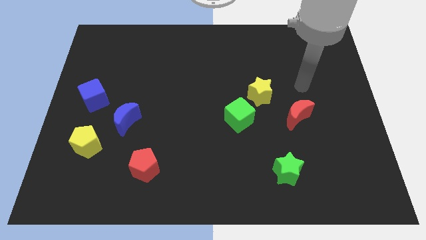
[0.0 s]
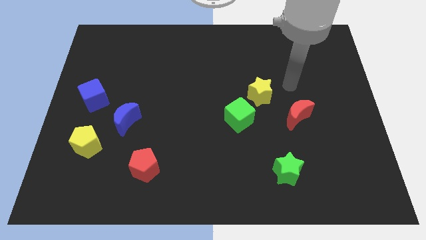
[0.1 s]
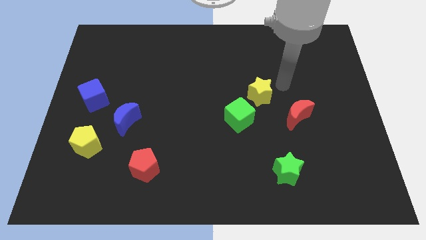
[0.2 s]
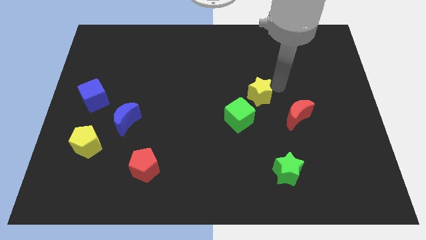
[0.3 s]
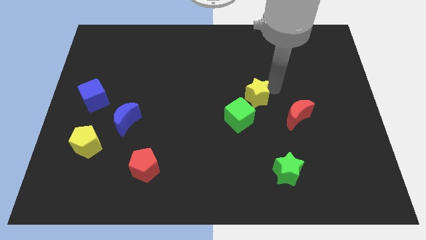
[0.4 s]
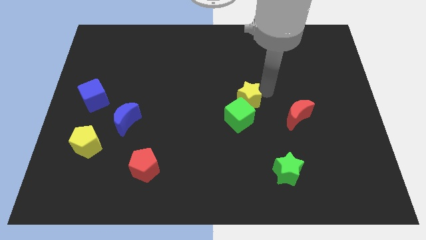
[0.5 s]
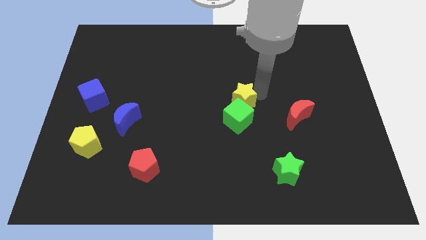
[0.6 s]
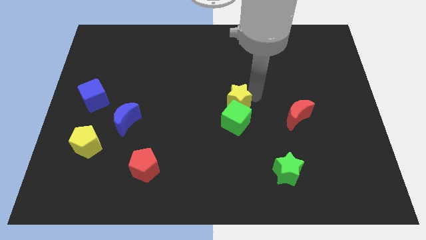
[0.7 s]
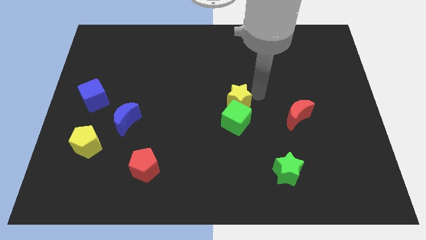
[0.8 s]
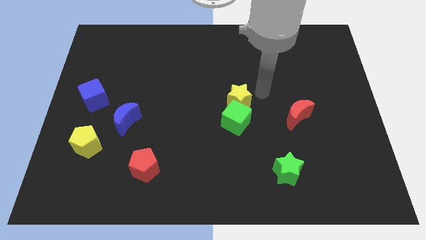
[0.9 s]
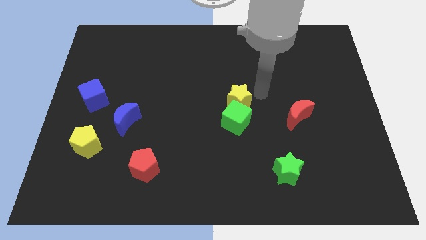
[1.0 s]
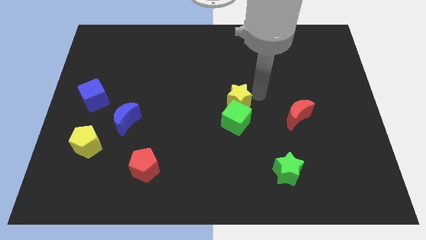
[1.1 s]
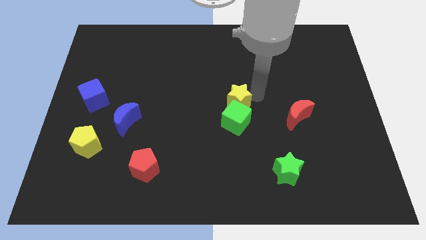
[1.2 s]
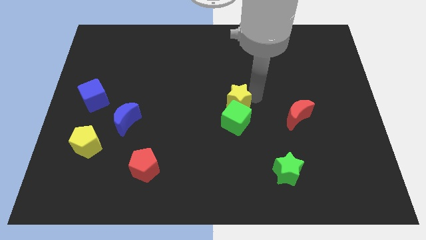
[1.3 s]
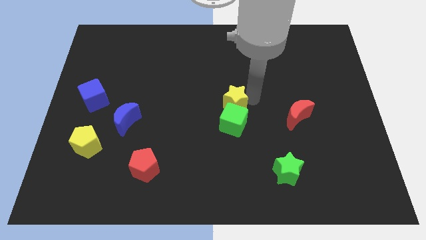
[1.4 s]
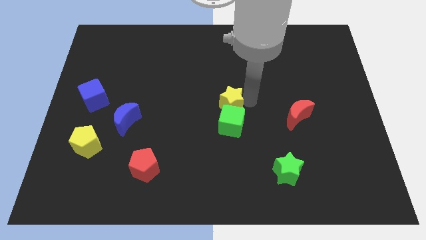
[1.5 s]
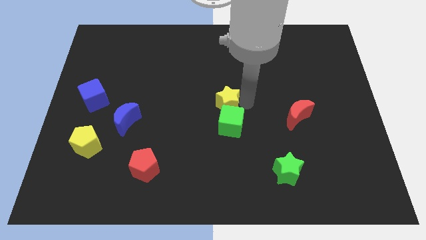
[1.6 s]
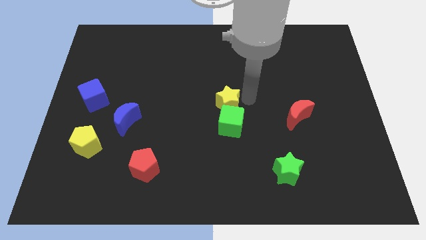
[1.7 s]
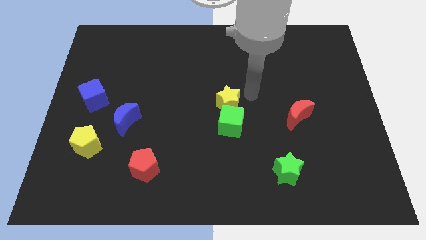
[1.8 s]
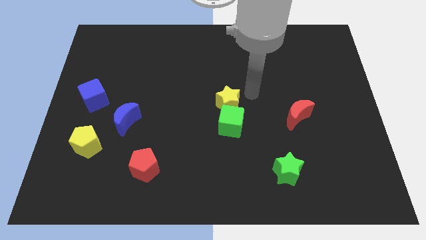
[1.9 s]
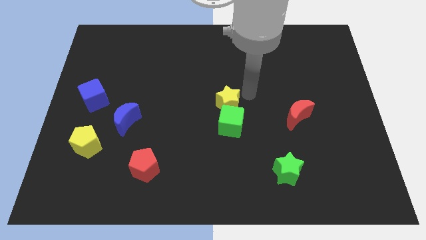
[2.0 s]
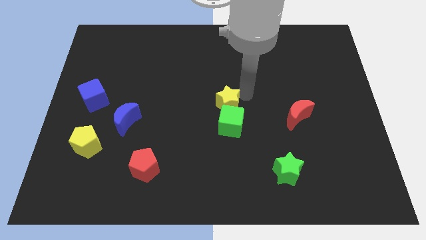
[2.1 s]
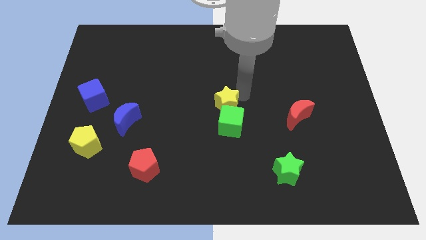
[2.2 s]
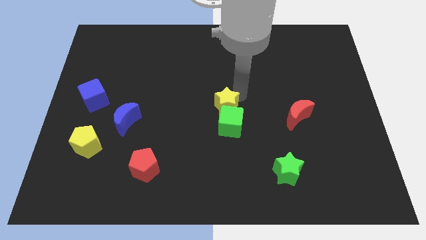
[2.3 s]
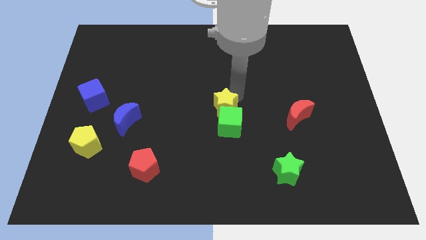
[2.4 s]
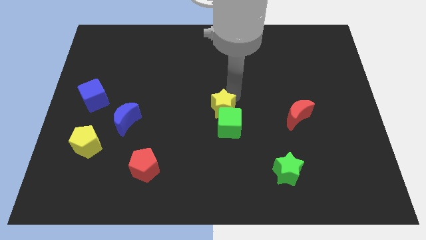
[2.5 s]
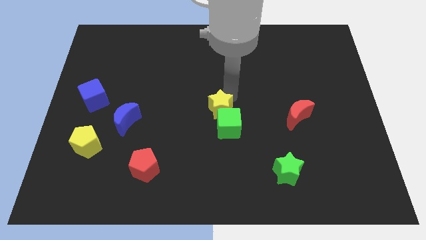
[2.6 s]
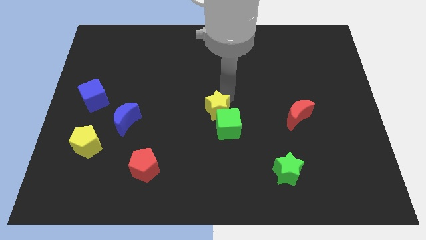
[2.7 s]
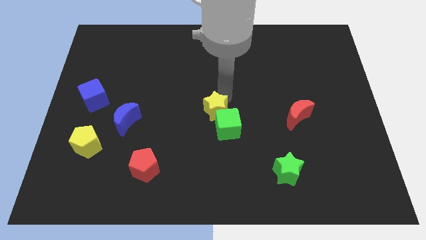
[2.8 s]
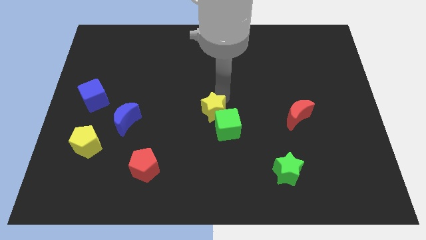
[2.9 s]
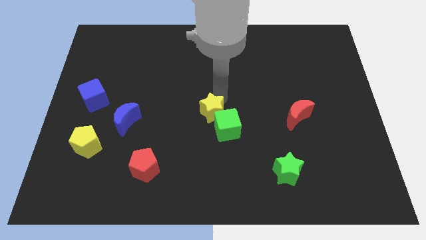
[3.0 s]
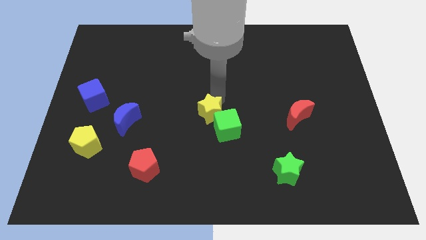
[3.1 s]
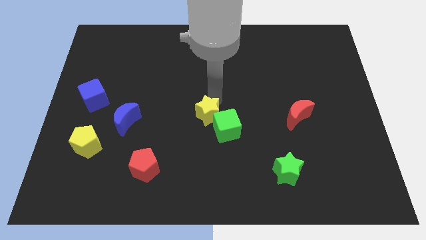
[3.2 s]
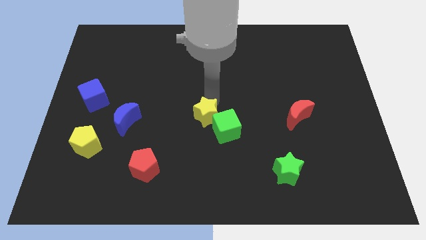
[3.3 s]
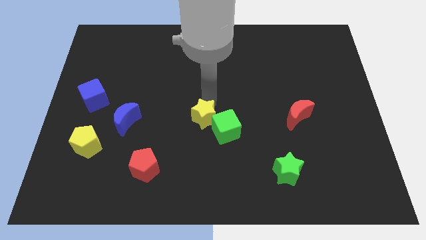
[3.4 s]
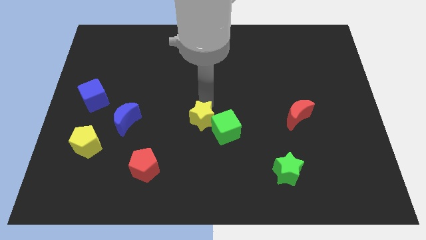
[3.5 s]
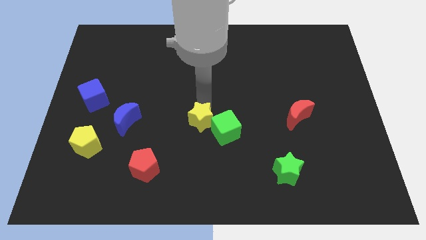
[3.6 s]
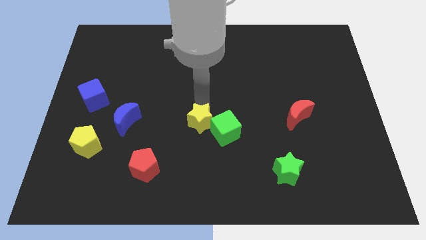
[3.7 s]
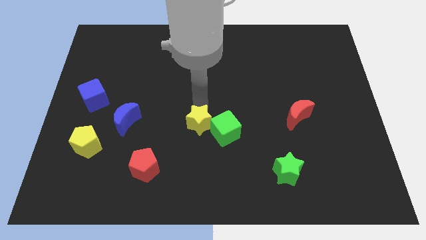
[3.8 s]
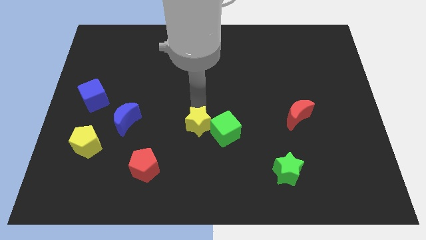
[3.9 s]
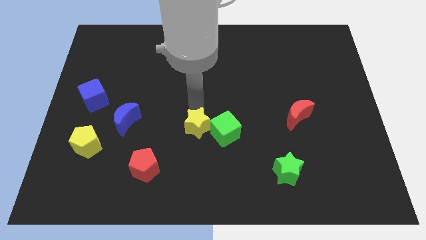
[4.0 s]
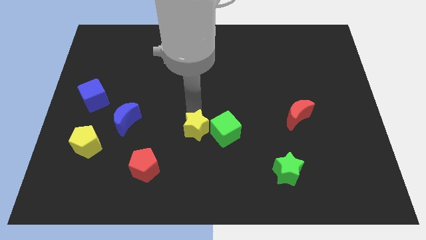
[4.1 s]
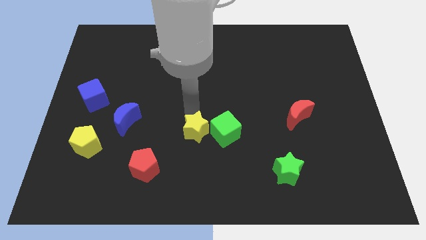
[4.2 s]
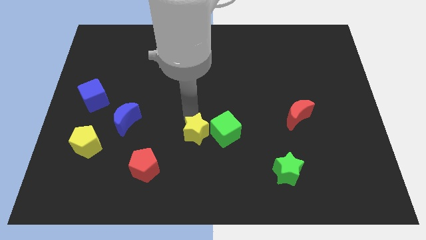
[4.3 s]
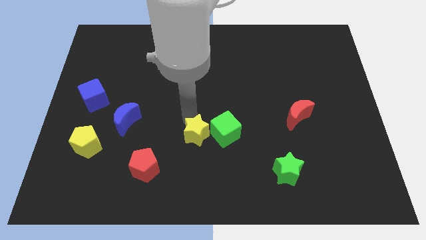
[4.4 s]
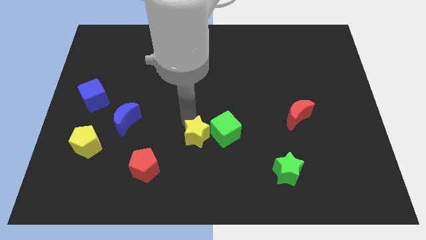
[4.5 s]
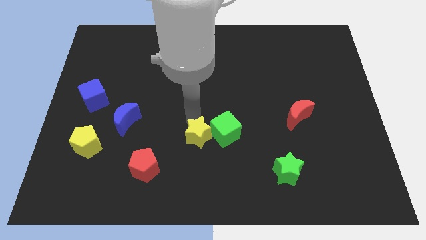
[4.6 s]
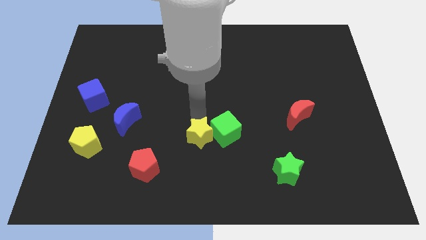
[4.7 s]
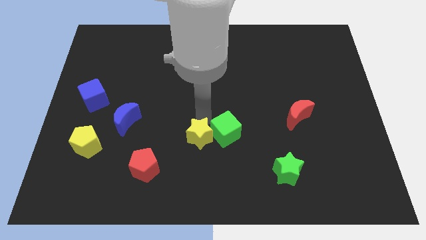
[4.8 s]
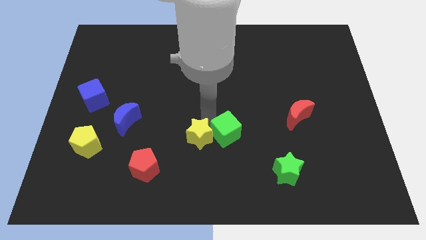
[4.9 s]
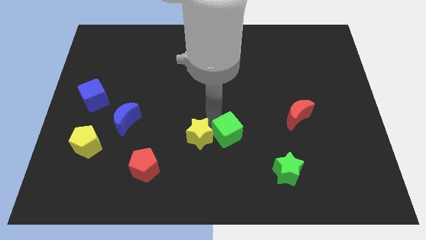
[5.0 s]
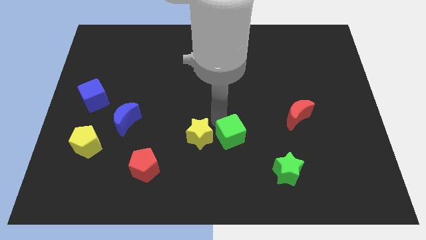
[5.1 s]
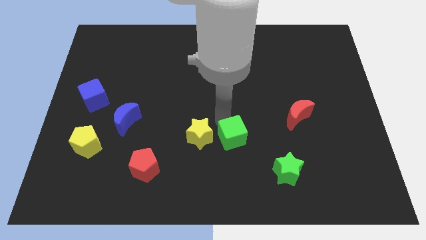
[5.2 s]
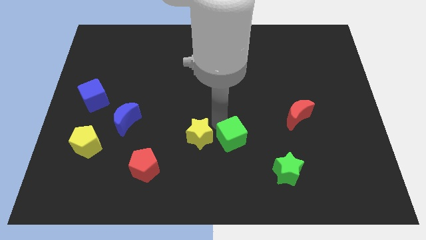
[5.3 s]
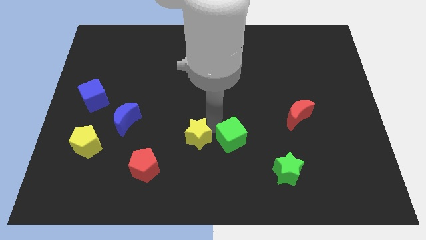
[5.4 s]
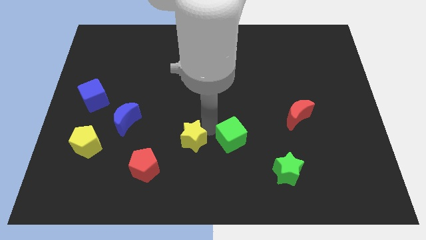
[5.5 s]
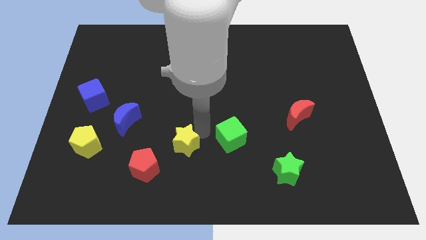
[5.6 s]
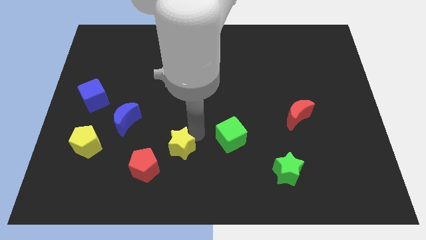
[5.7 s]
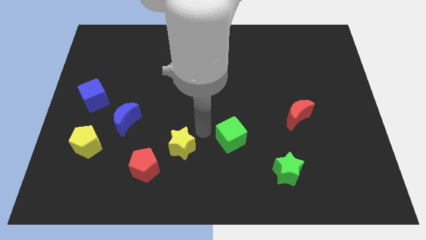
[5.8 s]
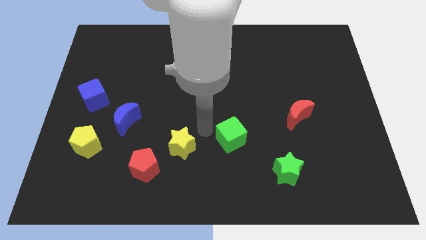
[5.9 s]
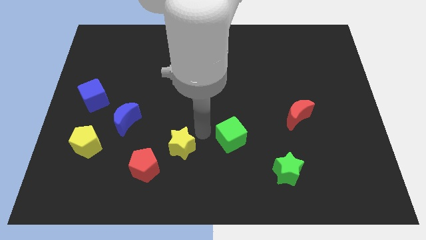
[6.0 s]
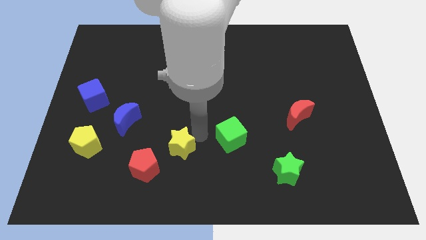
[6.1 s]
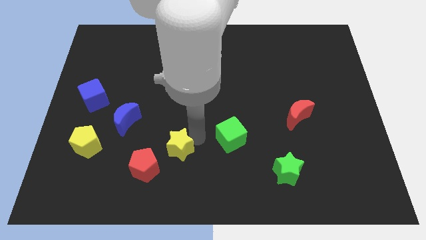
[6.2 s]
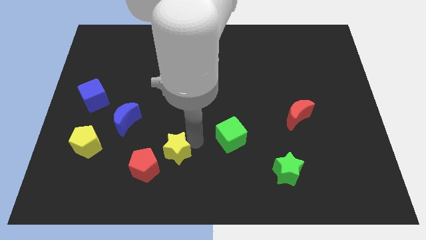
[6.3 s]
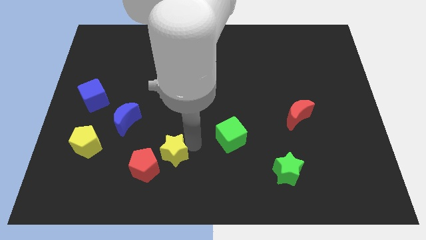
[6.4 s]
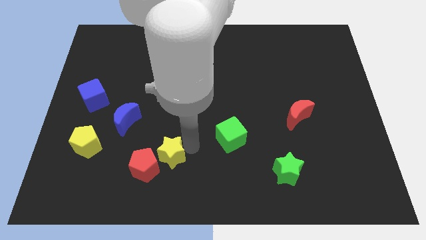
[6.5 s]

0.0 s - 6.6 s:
move the yellow star to the red pentagon

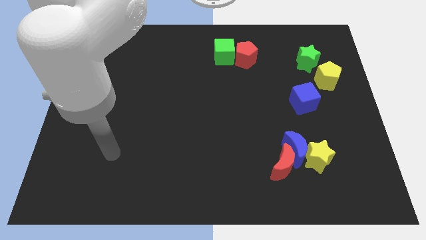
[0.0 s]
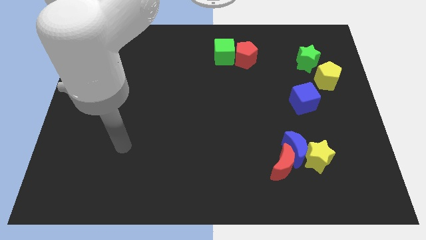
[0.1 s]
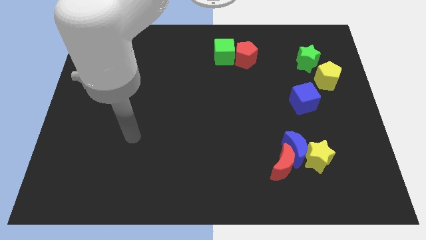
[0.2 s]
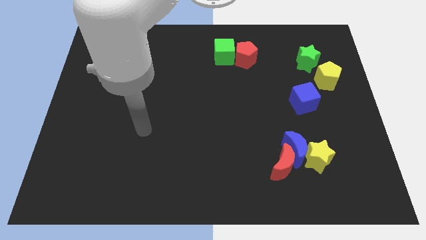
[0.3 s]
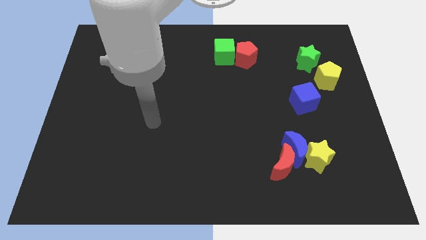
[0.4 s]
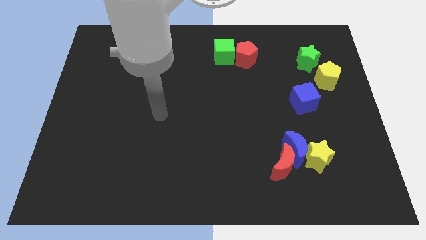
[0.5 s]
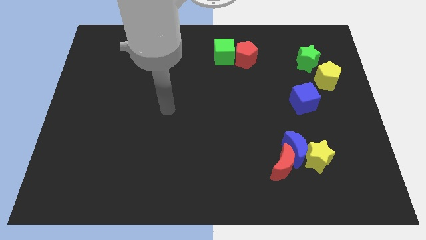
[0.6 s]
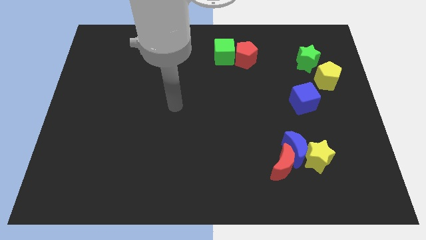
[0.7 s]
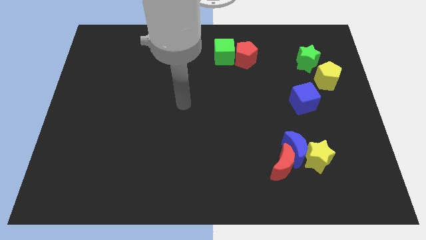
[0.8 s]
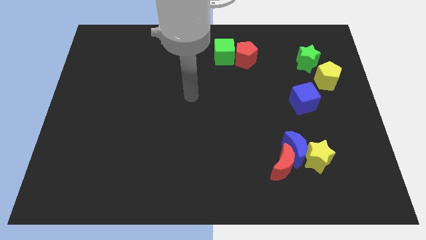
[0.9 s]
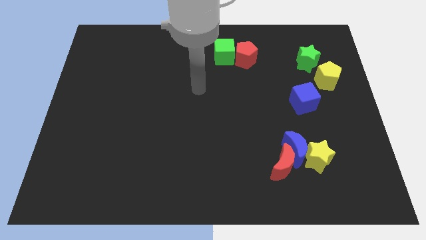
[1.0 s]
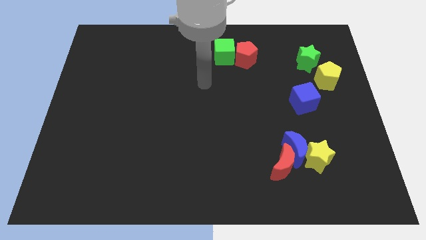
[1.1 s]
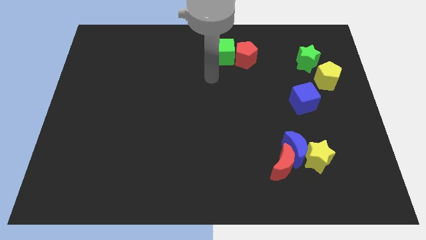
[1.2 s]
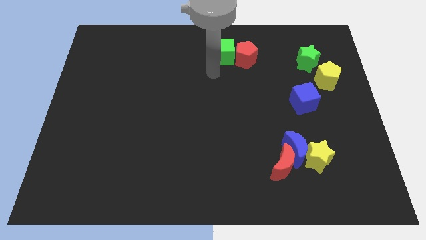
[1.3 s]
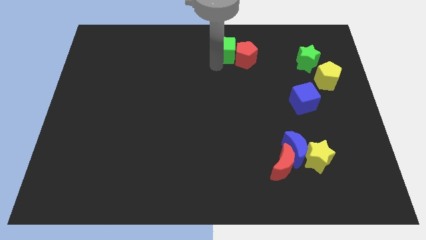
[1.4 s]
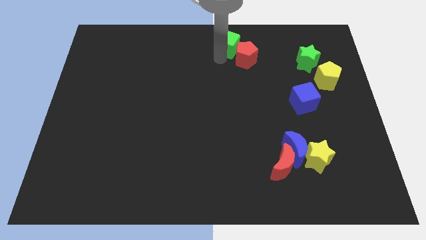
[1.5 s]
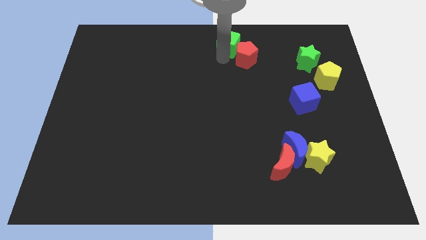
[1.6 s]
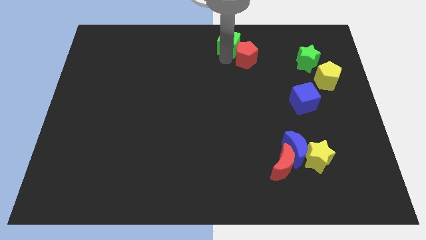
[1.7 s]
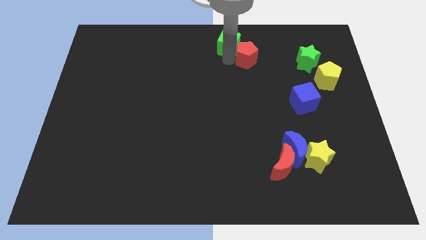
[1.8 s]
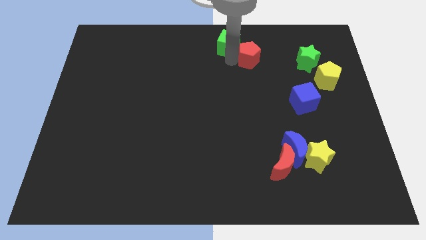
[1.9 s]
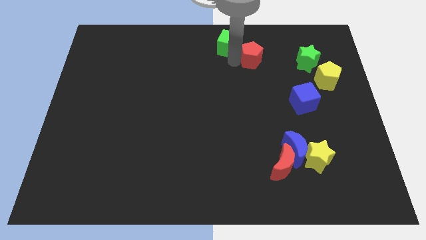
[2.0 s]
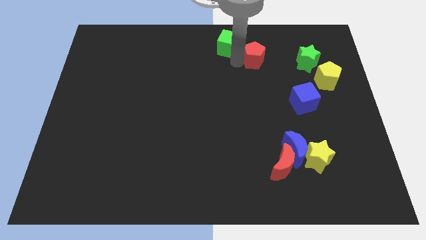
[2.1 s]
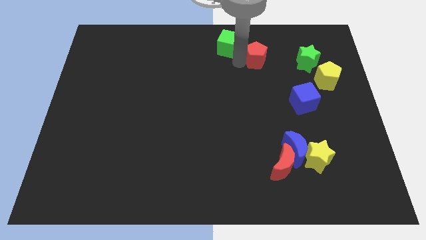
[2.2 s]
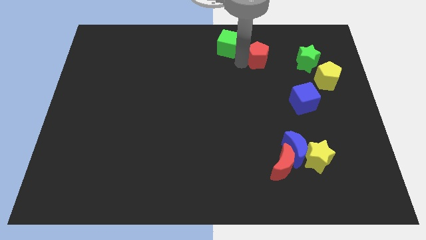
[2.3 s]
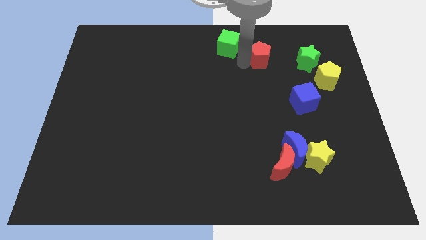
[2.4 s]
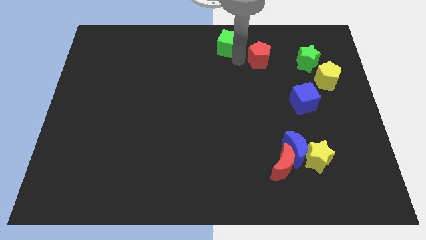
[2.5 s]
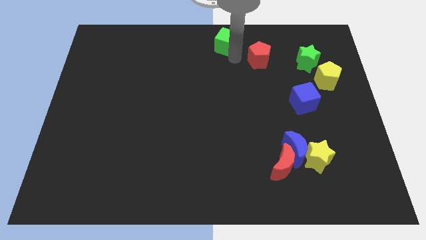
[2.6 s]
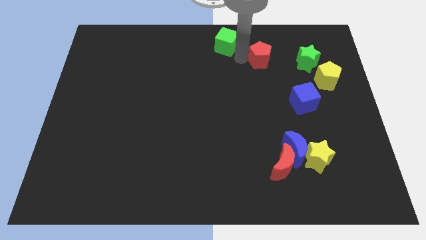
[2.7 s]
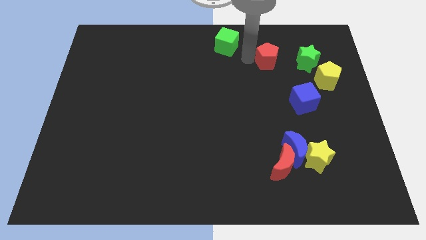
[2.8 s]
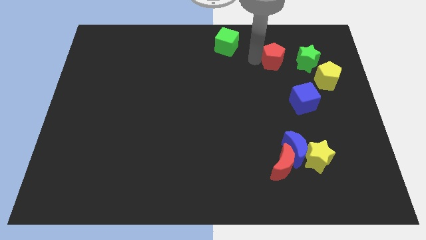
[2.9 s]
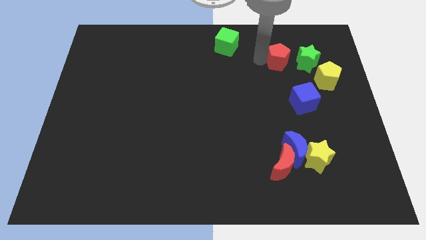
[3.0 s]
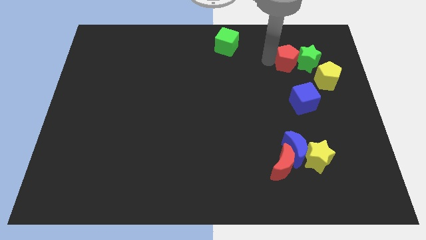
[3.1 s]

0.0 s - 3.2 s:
slide the red pentagon towards the green star
